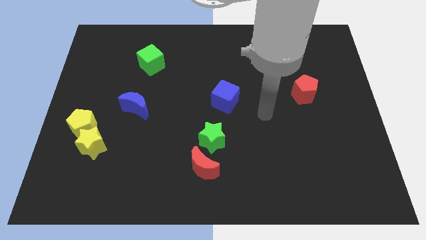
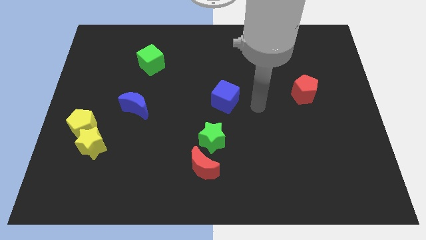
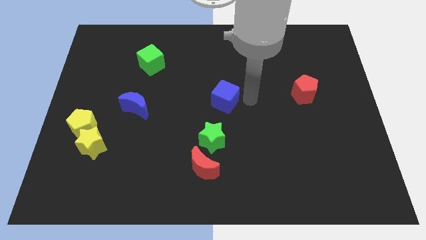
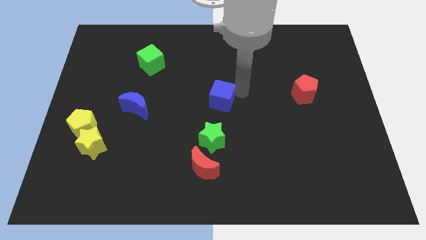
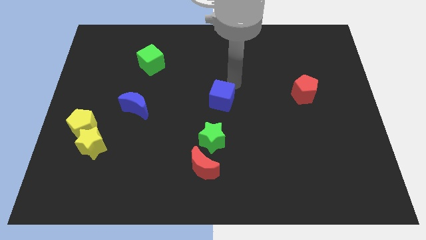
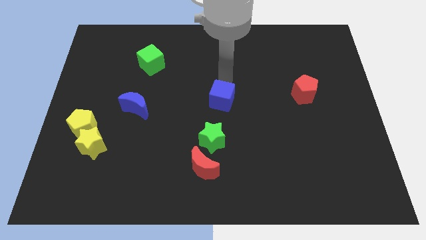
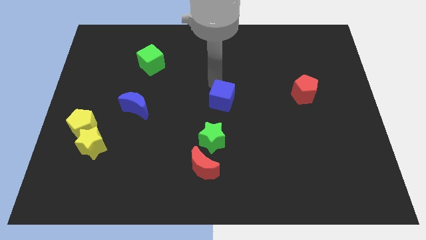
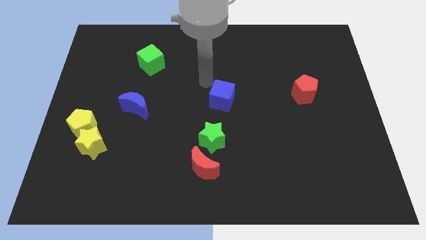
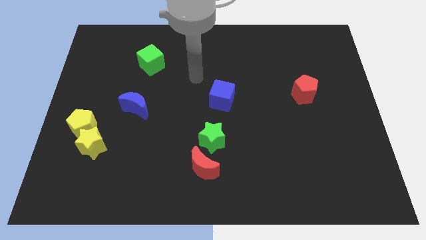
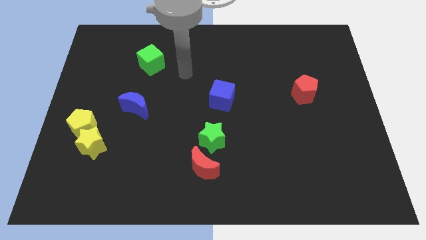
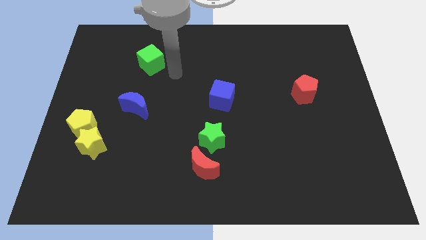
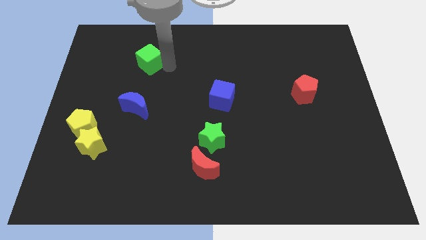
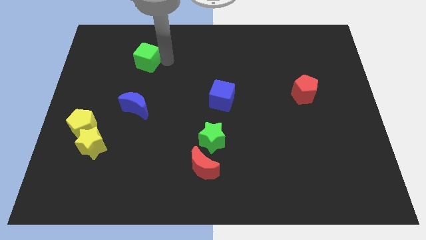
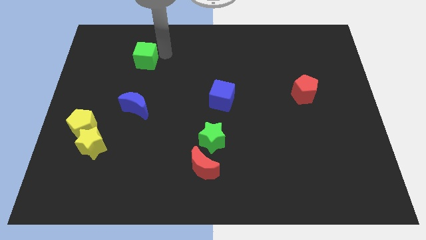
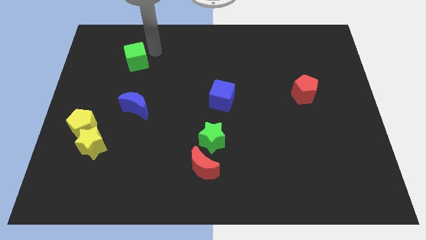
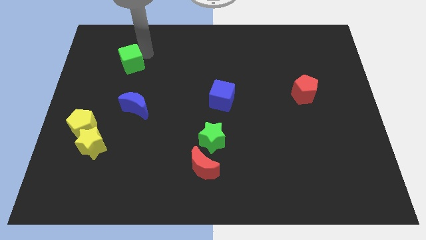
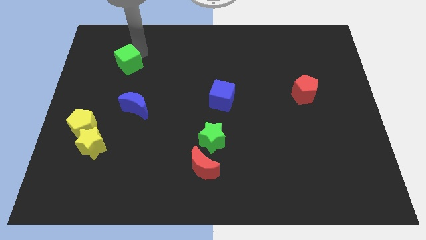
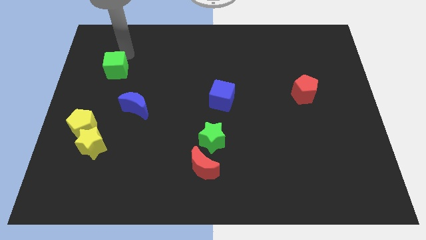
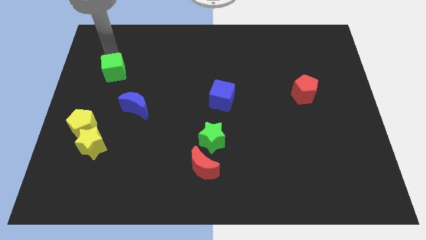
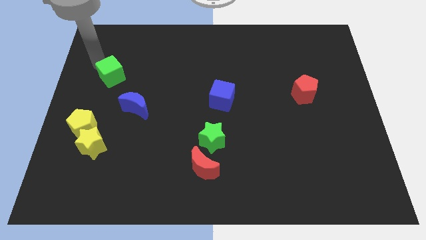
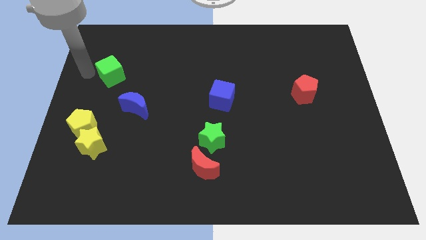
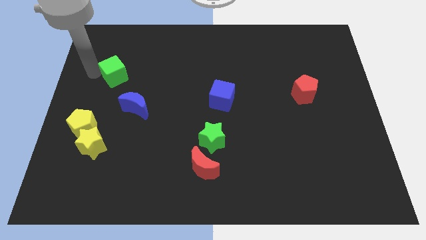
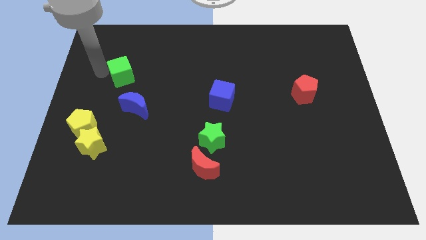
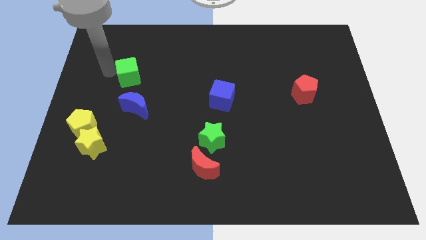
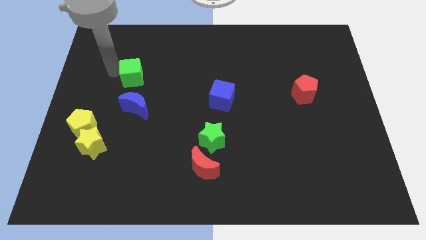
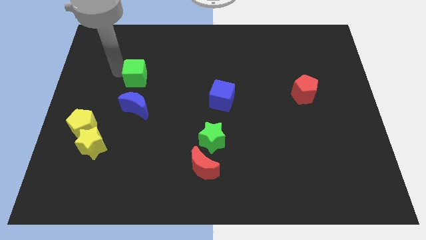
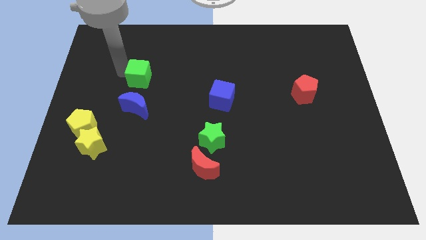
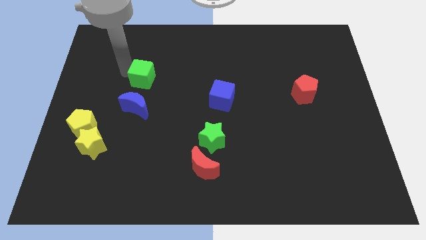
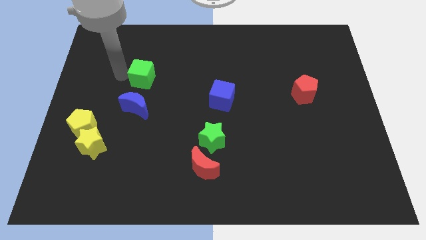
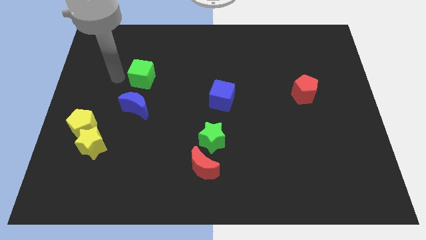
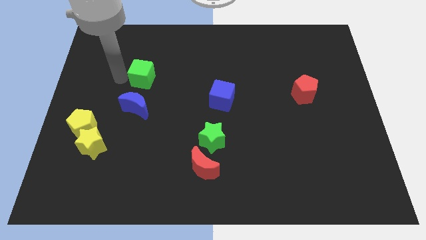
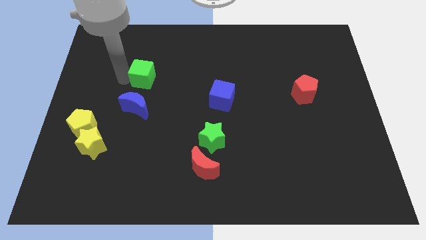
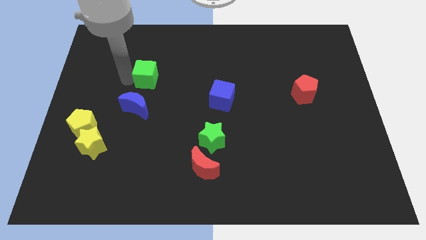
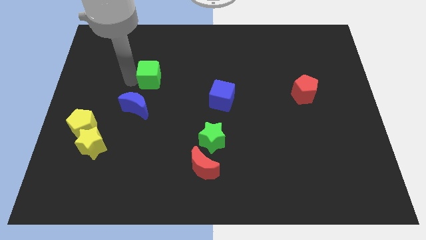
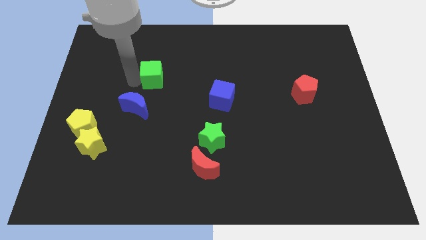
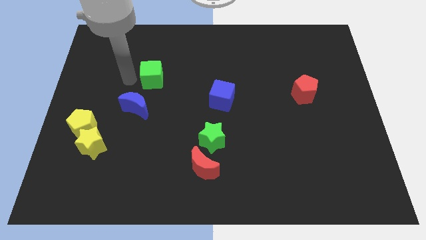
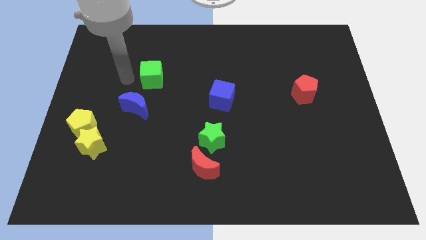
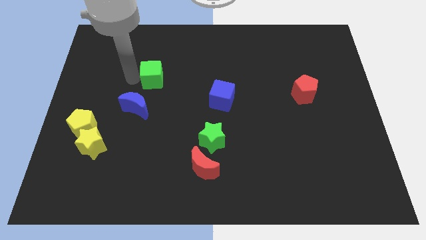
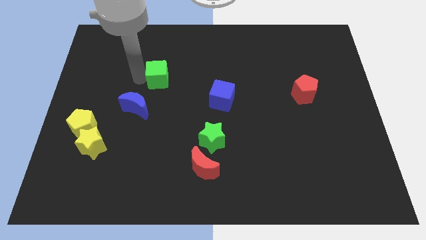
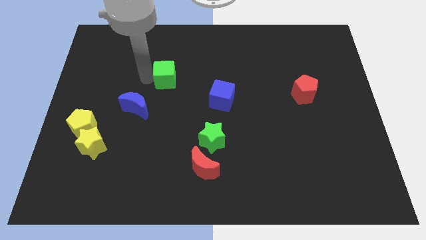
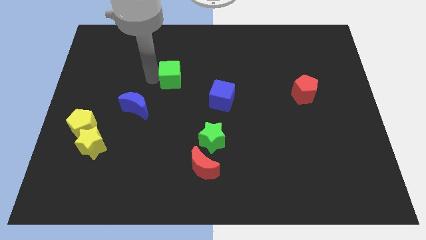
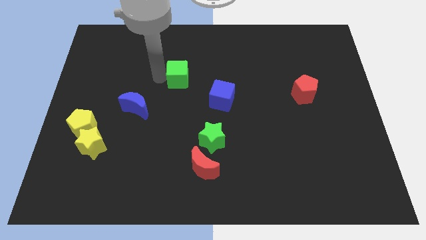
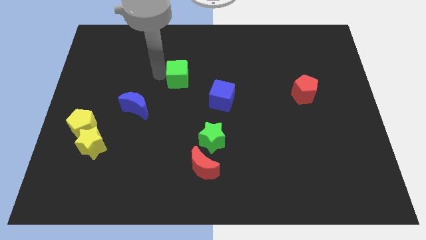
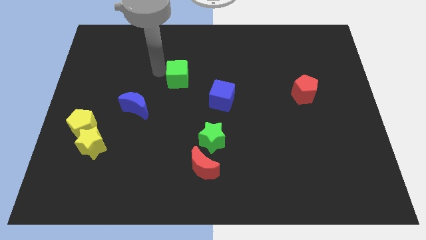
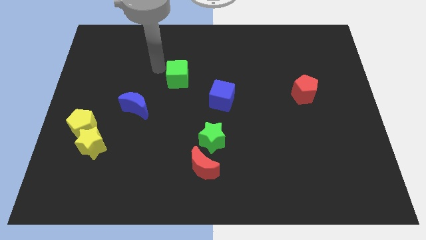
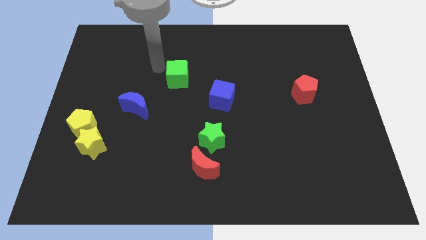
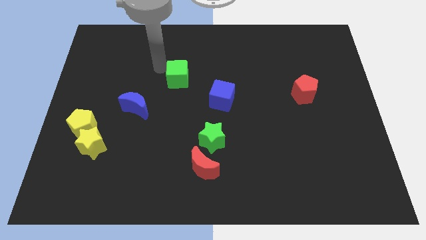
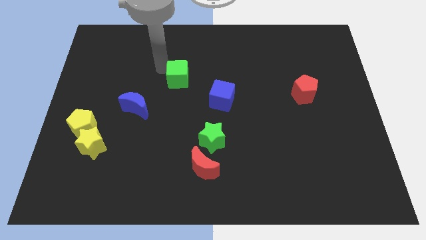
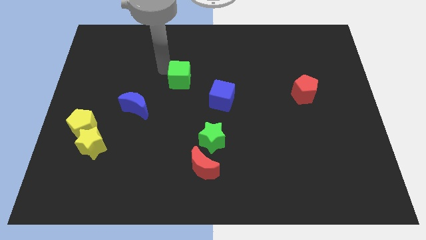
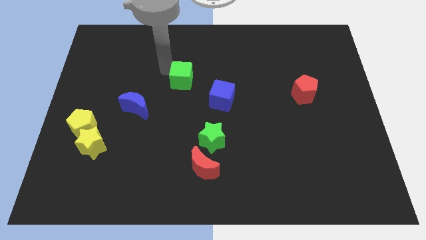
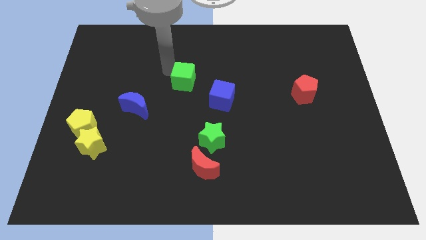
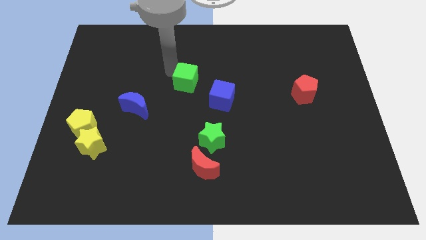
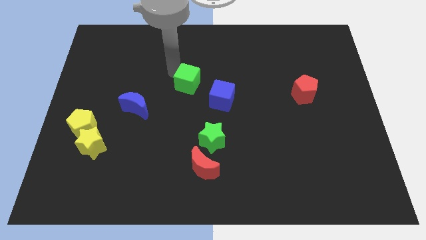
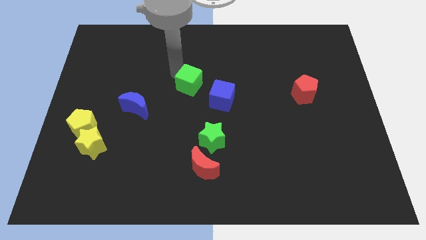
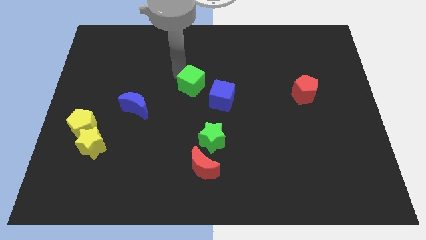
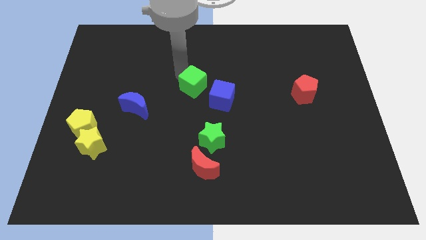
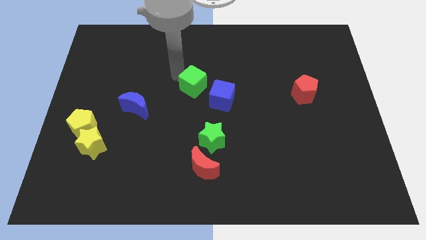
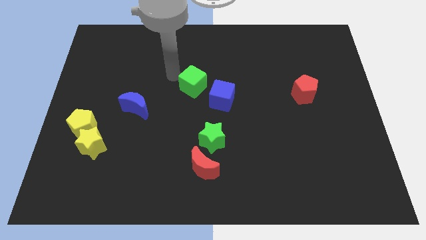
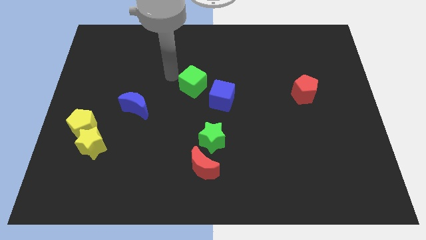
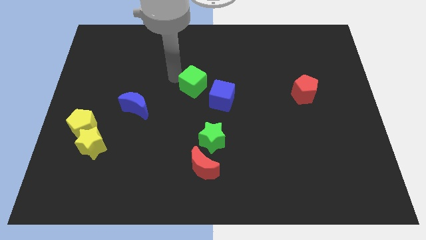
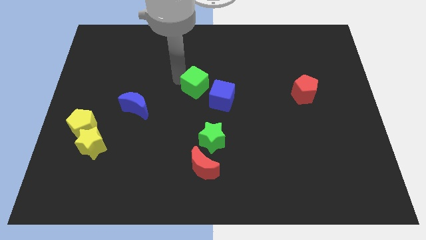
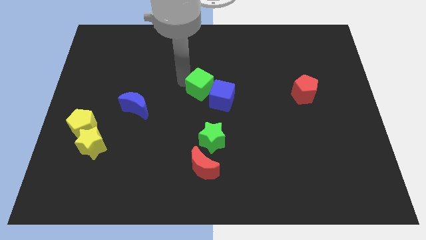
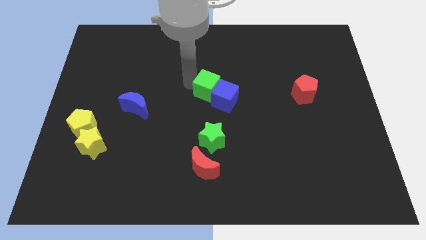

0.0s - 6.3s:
push the green cube close to the blue cube
